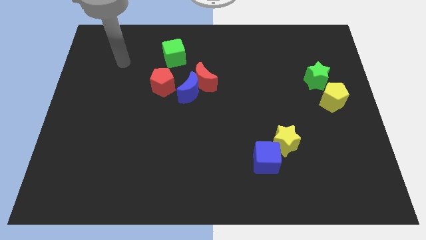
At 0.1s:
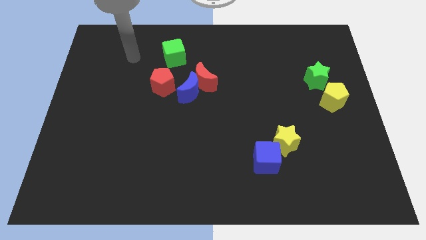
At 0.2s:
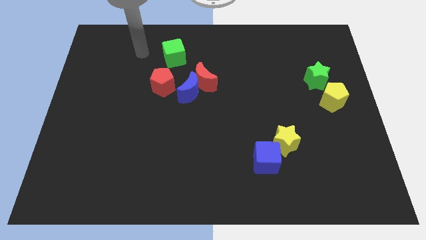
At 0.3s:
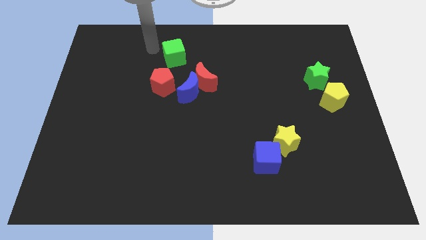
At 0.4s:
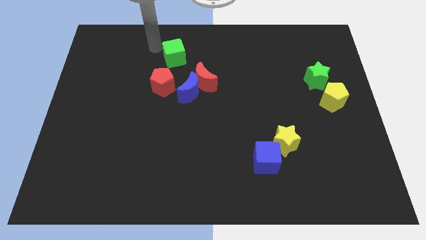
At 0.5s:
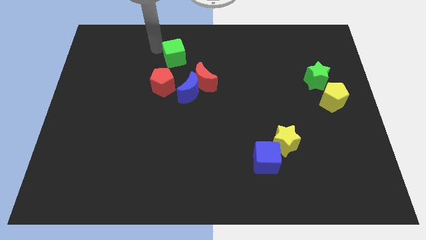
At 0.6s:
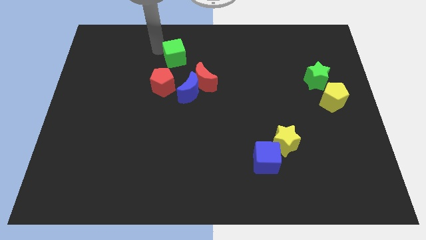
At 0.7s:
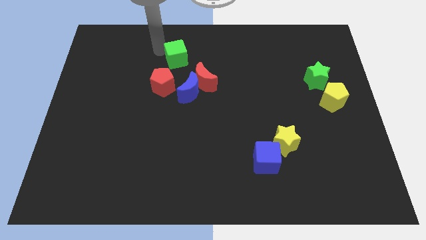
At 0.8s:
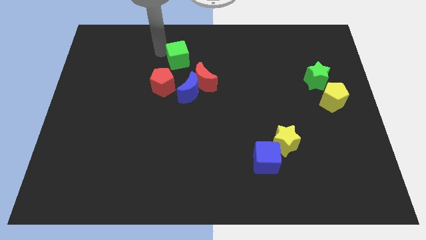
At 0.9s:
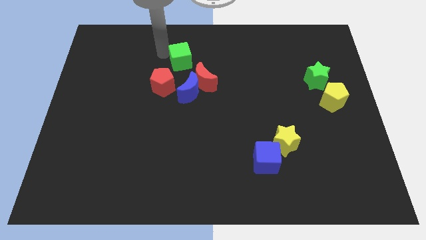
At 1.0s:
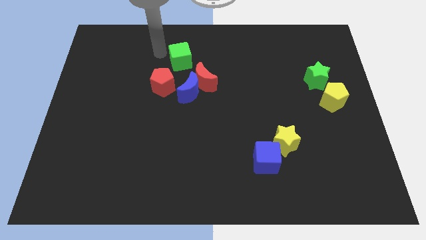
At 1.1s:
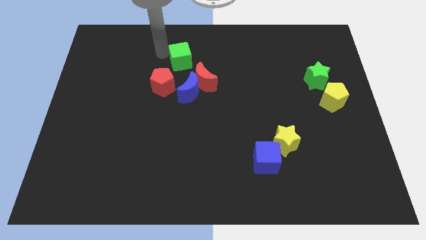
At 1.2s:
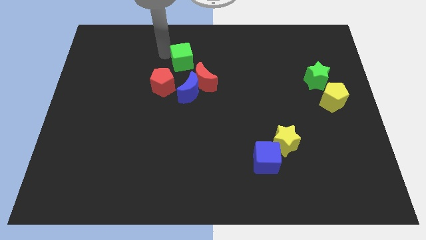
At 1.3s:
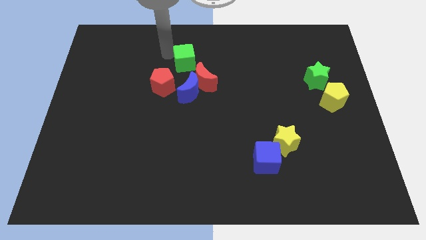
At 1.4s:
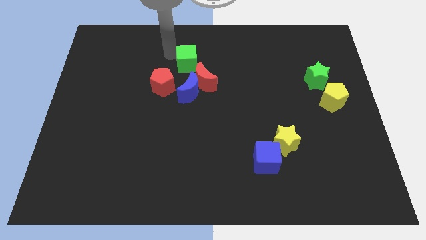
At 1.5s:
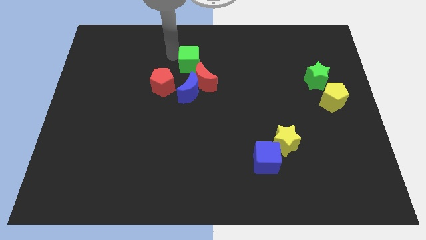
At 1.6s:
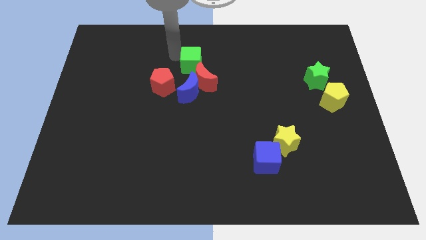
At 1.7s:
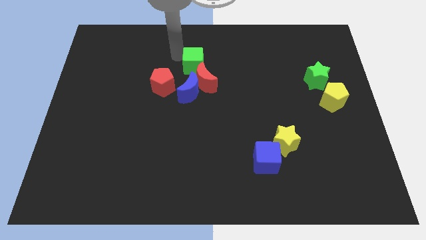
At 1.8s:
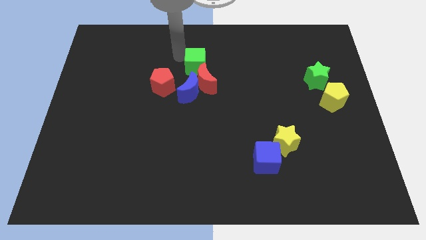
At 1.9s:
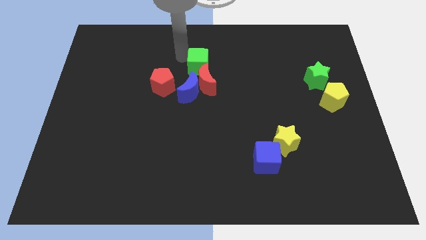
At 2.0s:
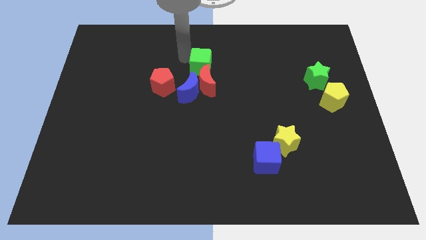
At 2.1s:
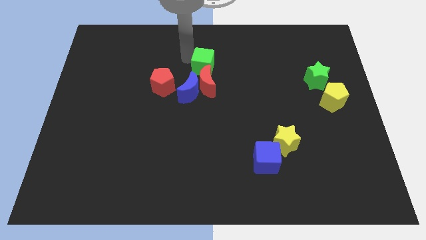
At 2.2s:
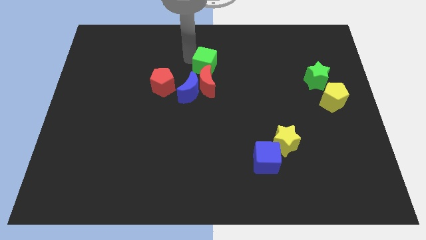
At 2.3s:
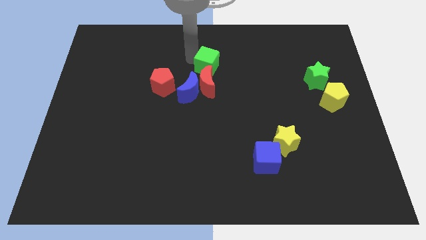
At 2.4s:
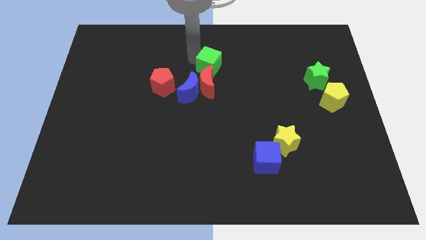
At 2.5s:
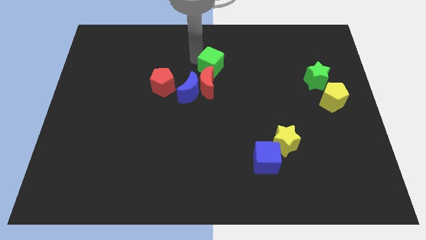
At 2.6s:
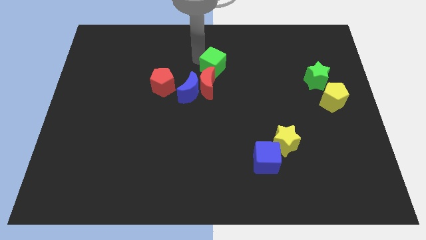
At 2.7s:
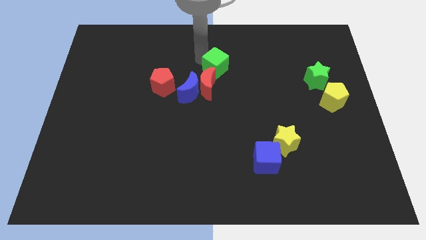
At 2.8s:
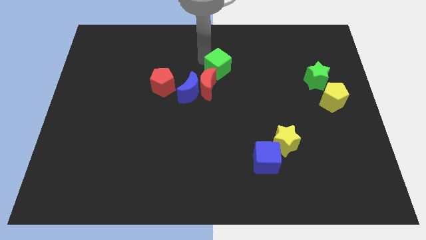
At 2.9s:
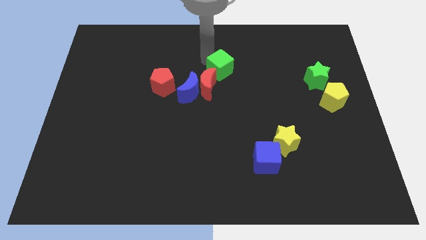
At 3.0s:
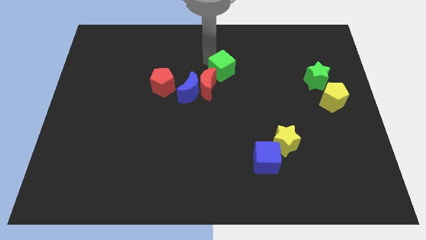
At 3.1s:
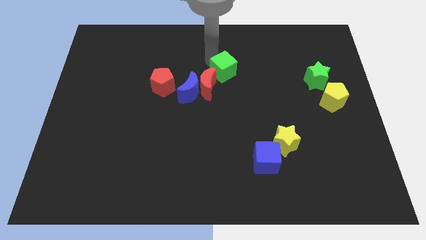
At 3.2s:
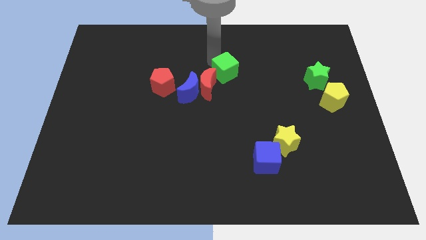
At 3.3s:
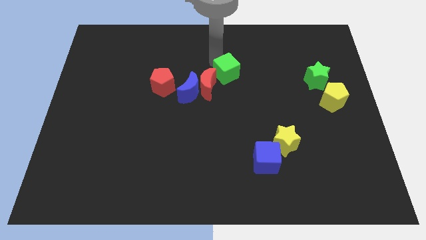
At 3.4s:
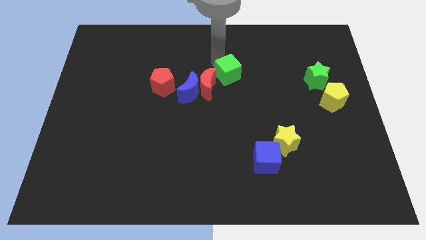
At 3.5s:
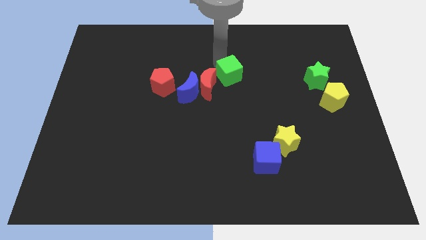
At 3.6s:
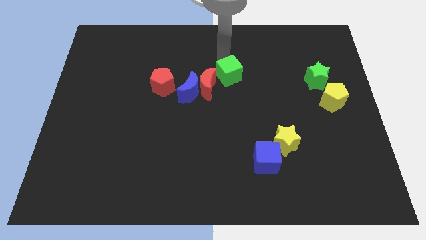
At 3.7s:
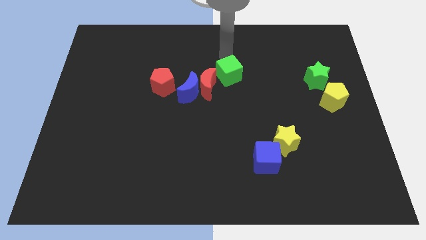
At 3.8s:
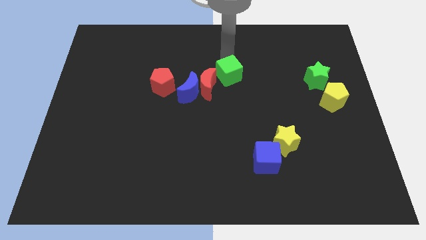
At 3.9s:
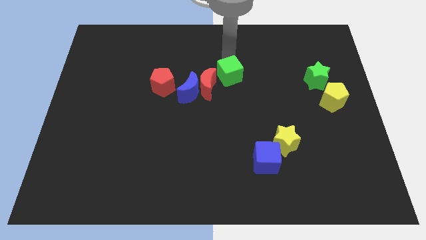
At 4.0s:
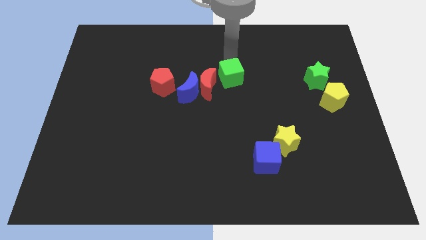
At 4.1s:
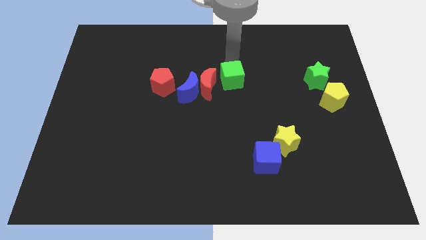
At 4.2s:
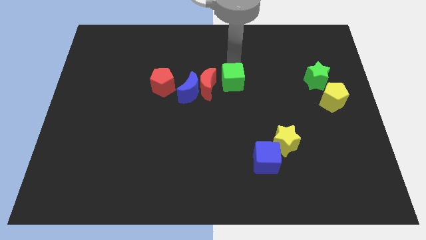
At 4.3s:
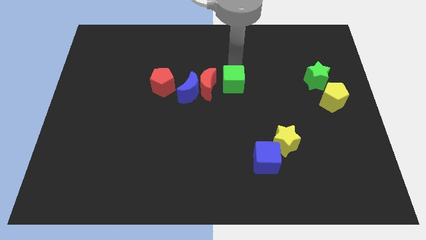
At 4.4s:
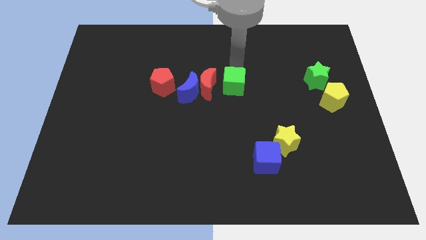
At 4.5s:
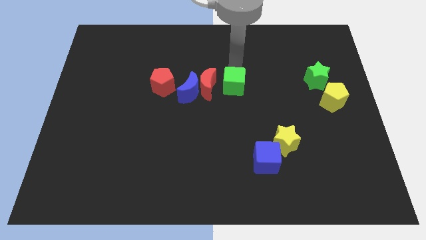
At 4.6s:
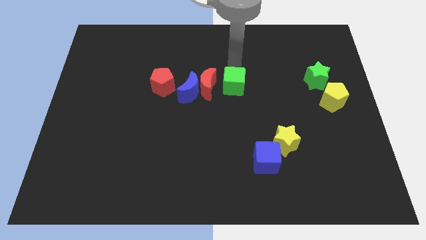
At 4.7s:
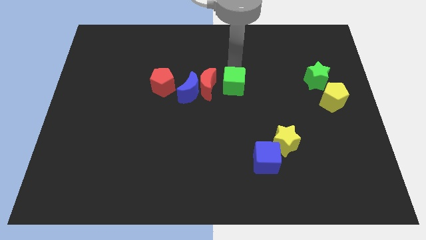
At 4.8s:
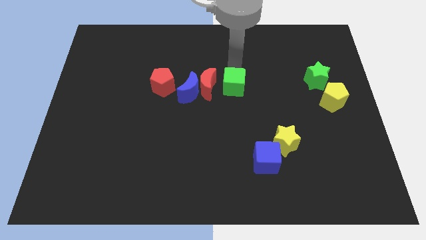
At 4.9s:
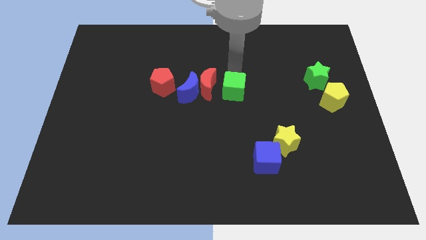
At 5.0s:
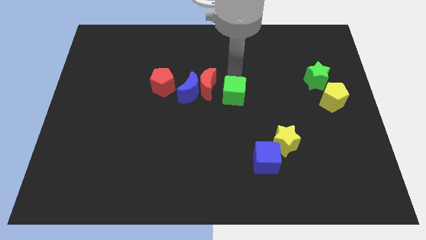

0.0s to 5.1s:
push the green cube diagonally down and to the right

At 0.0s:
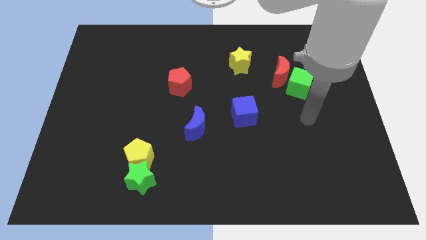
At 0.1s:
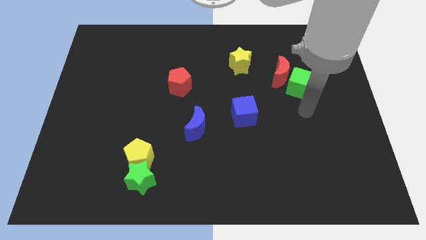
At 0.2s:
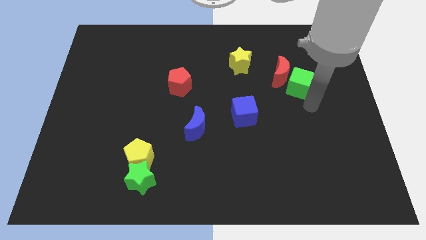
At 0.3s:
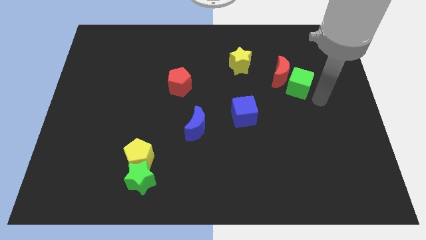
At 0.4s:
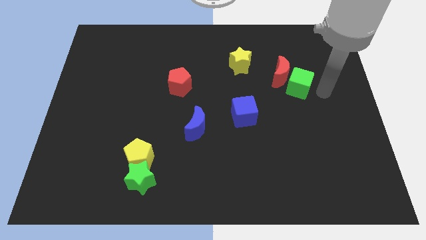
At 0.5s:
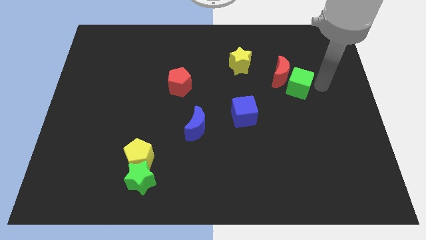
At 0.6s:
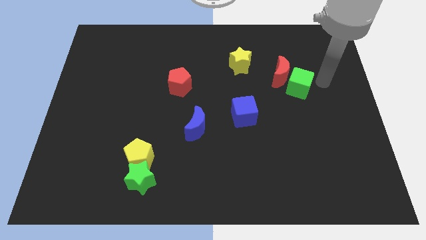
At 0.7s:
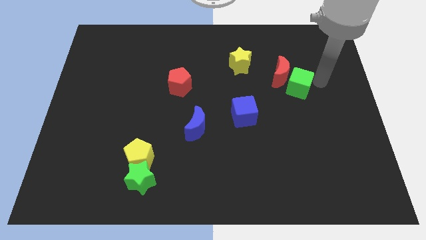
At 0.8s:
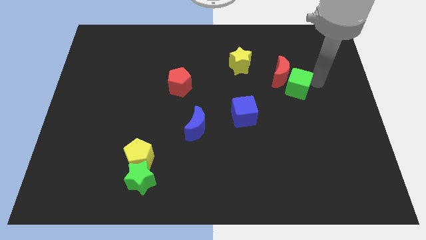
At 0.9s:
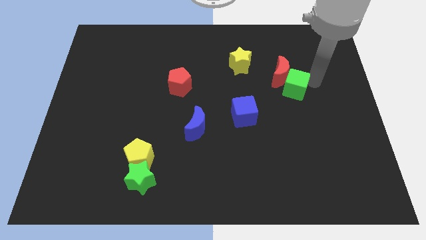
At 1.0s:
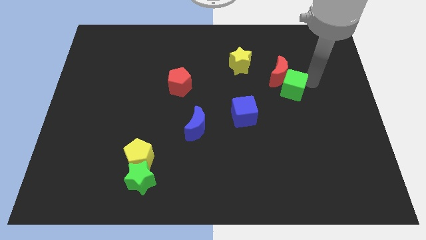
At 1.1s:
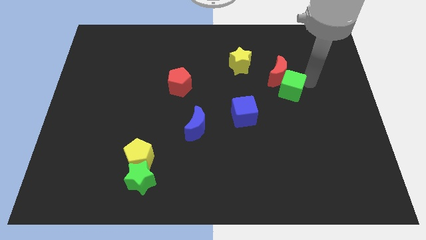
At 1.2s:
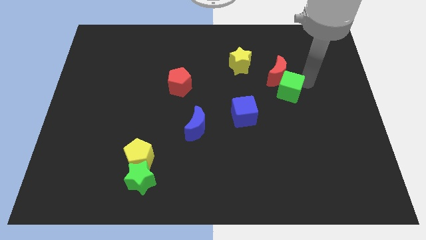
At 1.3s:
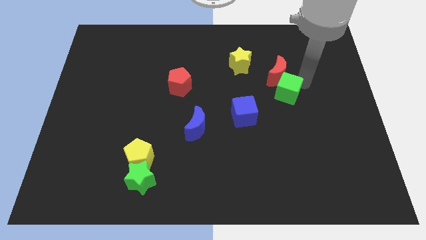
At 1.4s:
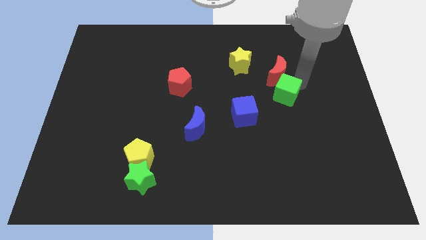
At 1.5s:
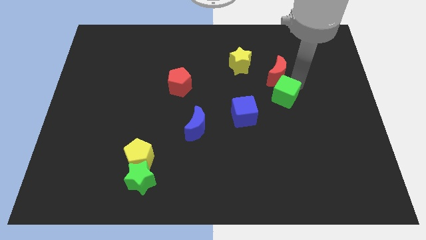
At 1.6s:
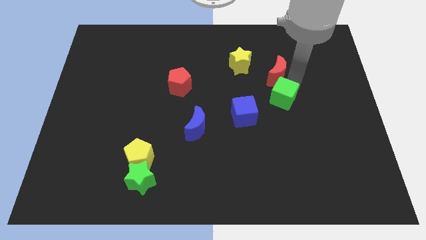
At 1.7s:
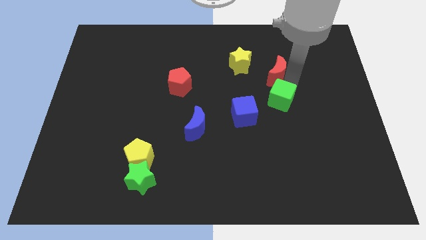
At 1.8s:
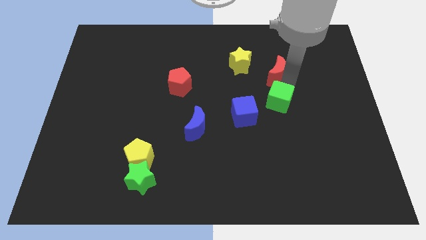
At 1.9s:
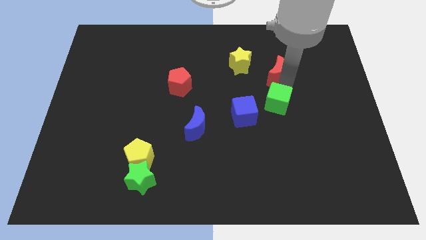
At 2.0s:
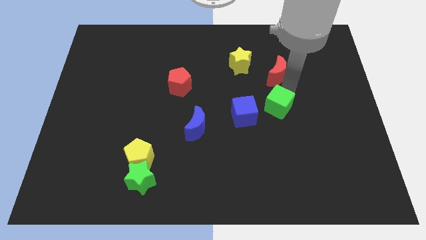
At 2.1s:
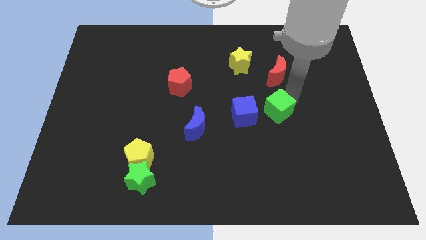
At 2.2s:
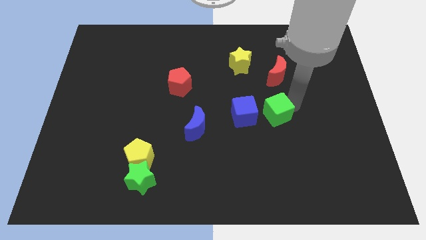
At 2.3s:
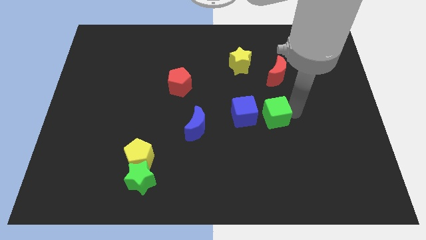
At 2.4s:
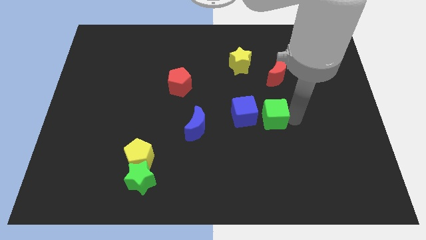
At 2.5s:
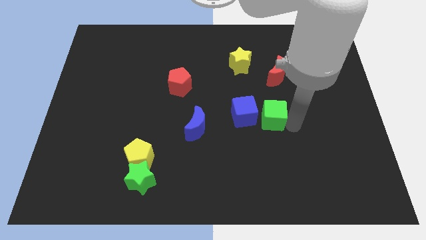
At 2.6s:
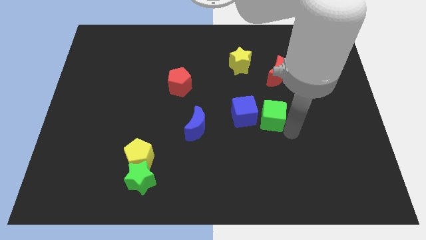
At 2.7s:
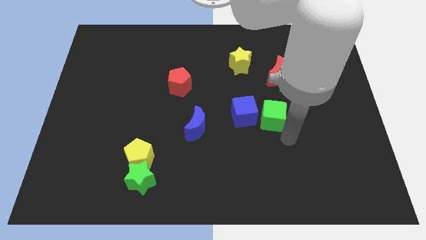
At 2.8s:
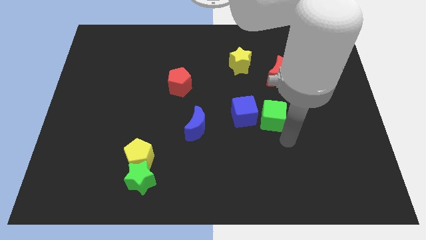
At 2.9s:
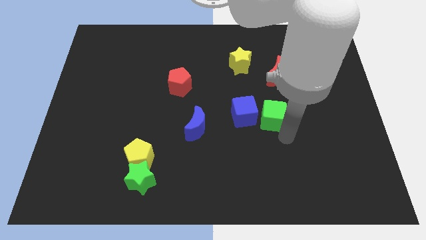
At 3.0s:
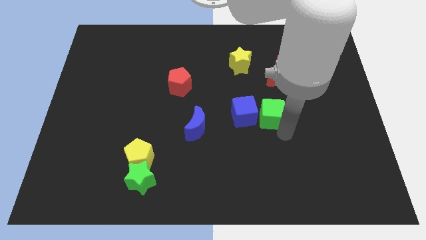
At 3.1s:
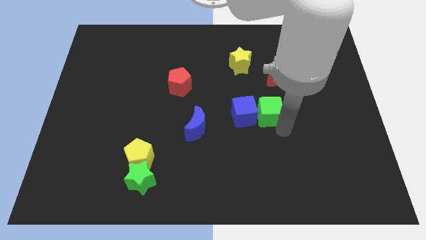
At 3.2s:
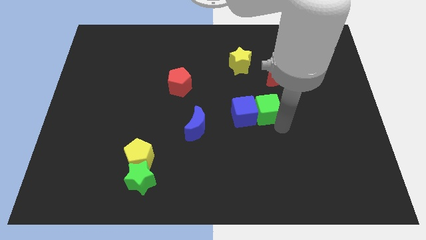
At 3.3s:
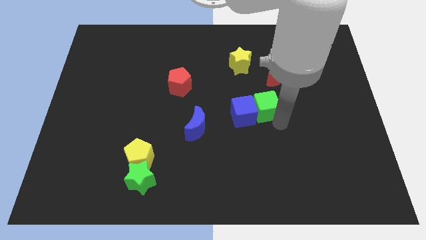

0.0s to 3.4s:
slide the green cube left somewhat

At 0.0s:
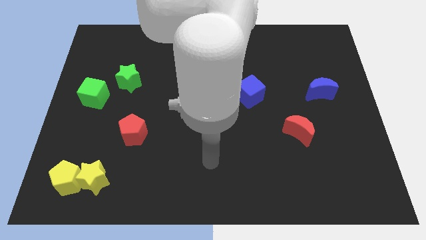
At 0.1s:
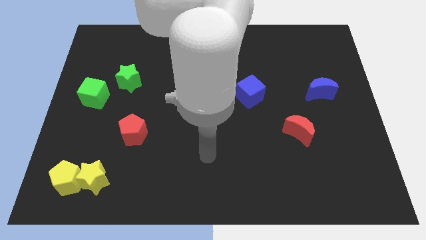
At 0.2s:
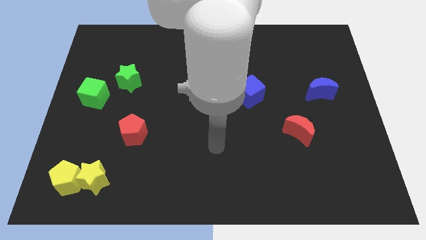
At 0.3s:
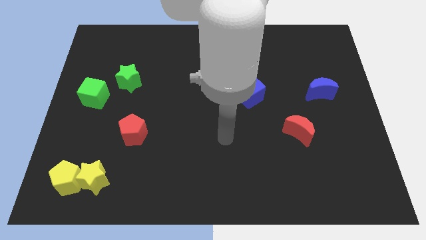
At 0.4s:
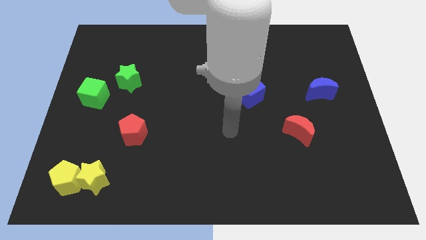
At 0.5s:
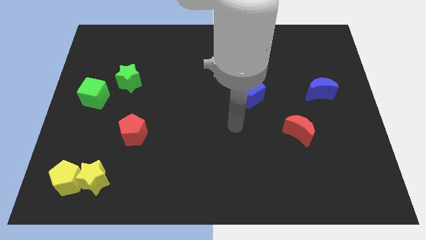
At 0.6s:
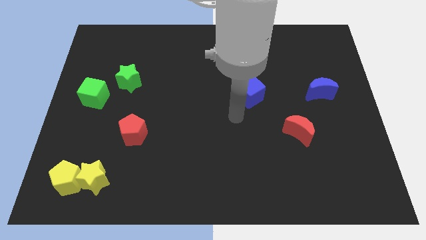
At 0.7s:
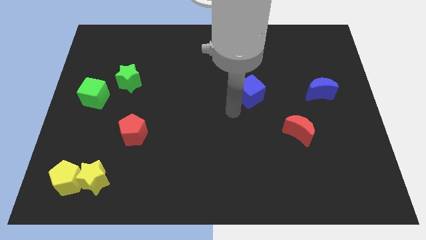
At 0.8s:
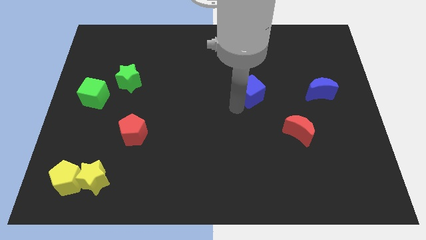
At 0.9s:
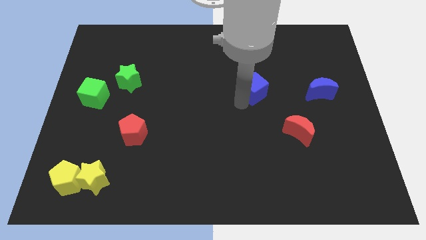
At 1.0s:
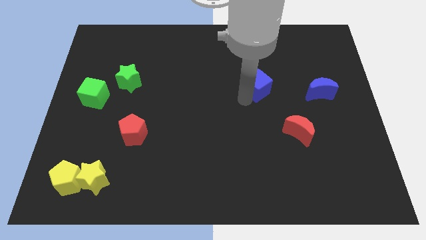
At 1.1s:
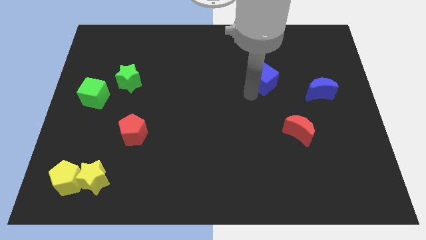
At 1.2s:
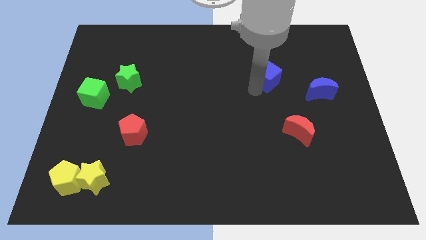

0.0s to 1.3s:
slide the blue cube somewhat diagonally up and right
